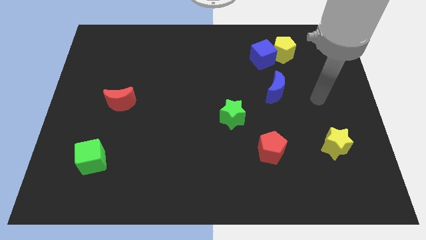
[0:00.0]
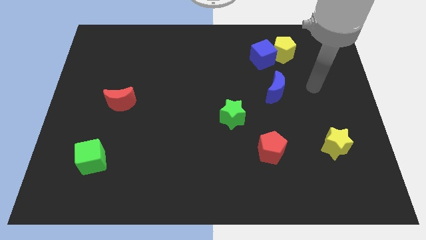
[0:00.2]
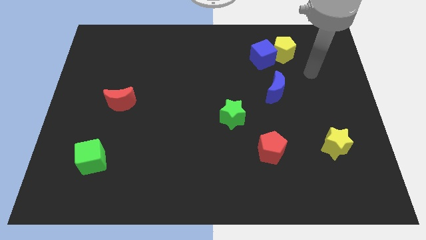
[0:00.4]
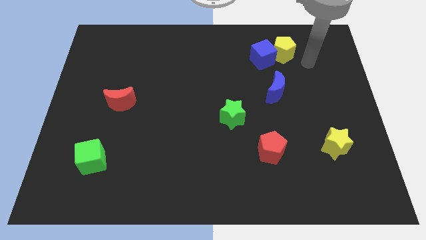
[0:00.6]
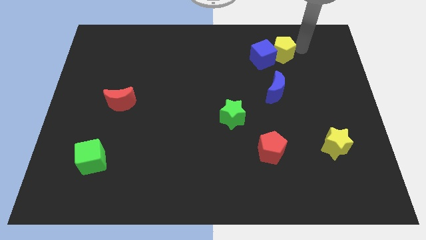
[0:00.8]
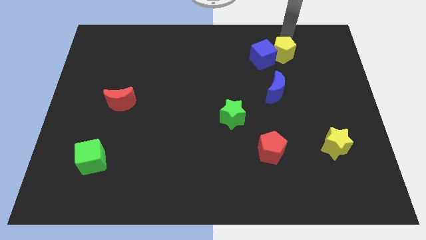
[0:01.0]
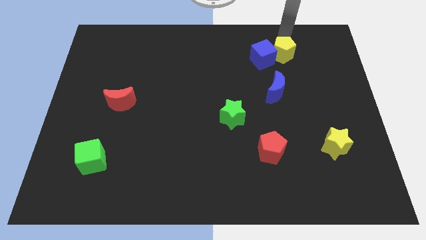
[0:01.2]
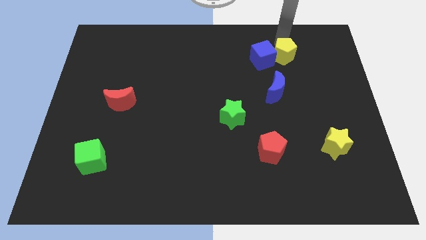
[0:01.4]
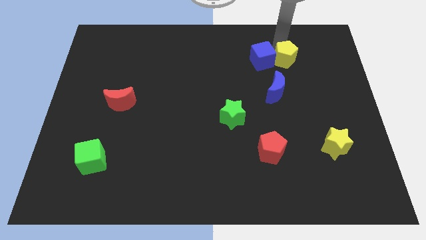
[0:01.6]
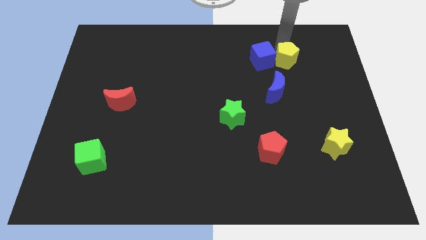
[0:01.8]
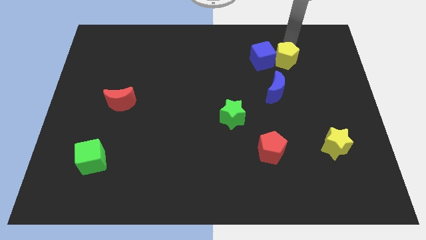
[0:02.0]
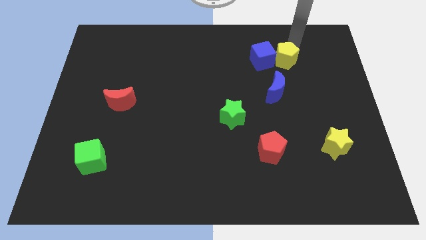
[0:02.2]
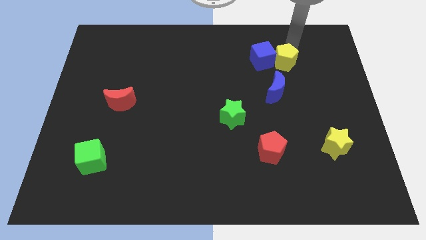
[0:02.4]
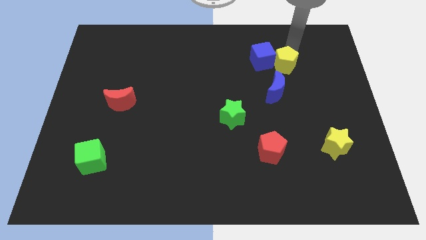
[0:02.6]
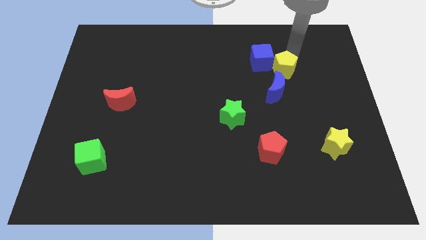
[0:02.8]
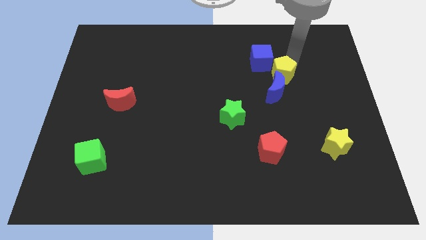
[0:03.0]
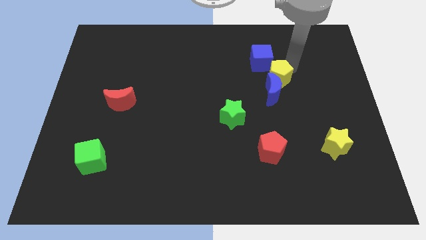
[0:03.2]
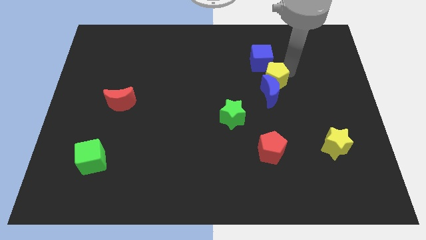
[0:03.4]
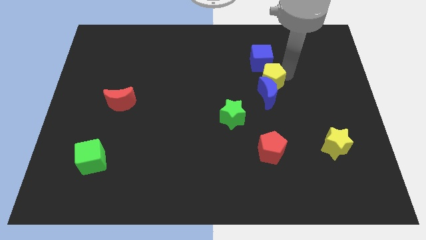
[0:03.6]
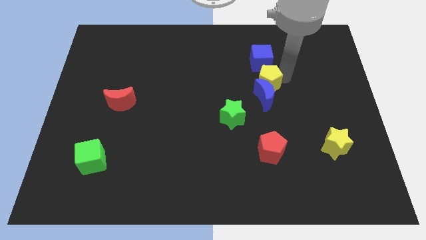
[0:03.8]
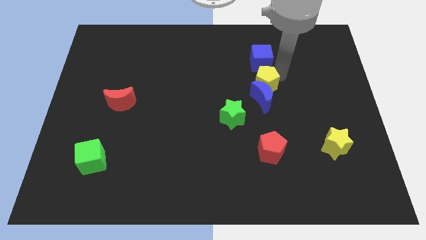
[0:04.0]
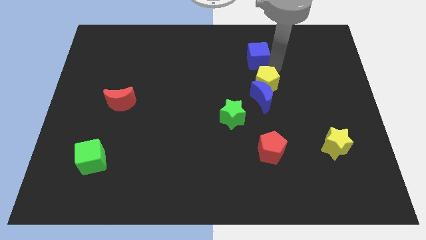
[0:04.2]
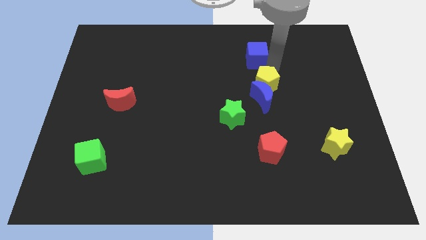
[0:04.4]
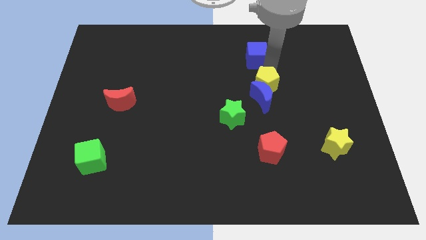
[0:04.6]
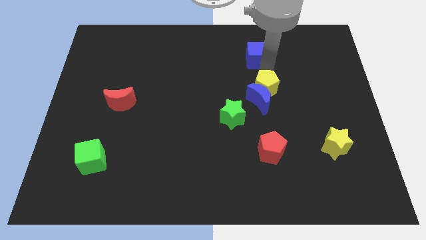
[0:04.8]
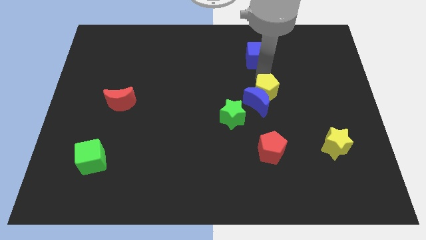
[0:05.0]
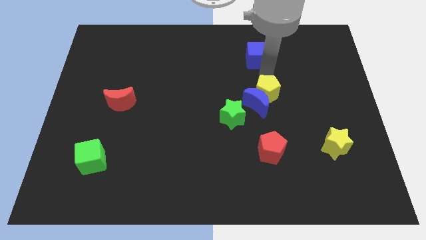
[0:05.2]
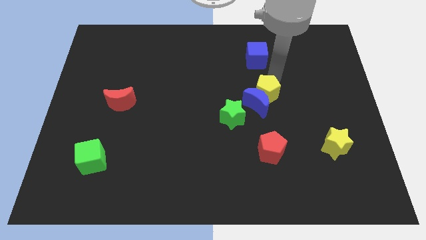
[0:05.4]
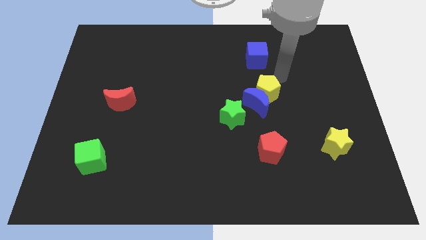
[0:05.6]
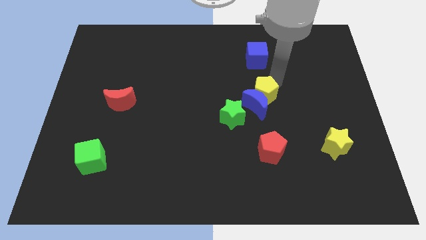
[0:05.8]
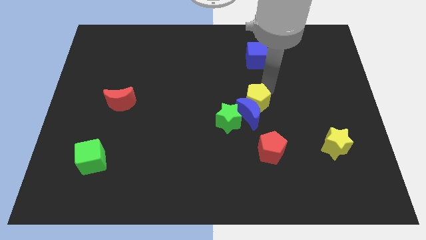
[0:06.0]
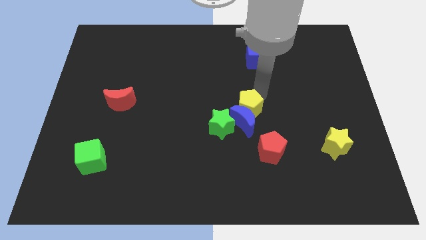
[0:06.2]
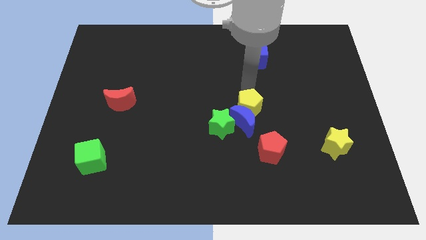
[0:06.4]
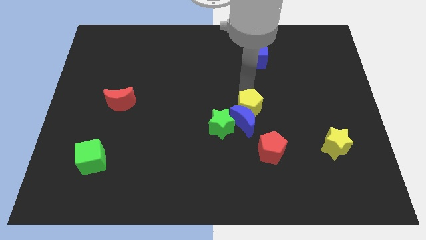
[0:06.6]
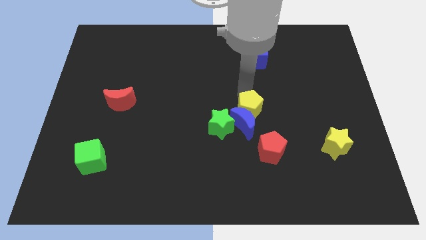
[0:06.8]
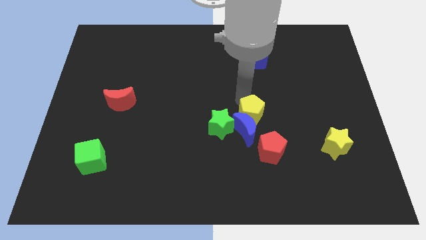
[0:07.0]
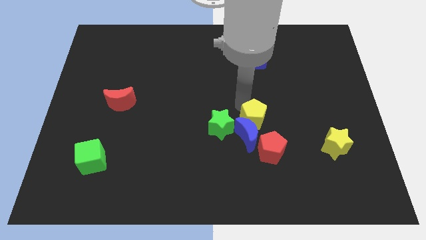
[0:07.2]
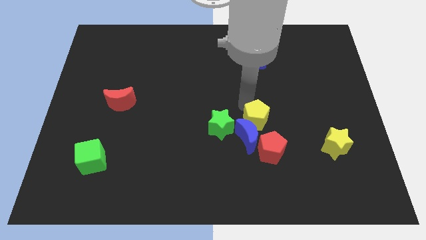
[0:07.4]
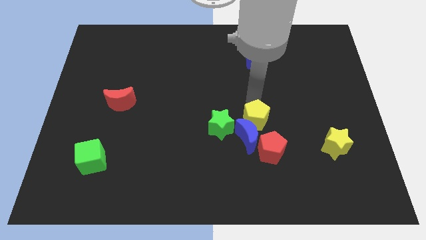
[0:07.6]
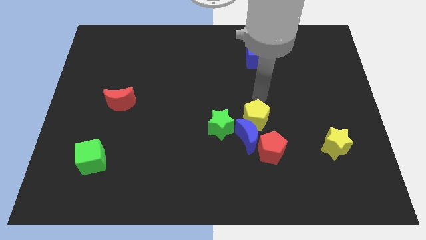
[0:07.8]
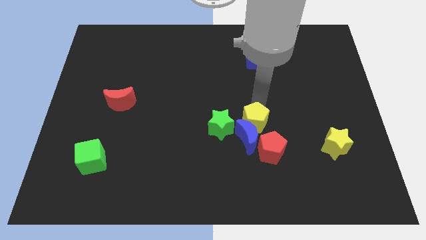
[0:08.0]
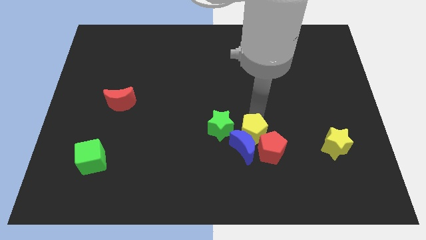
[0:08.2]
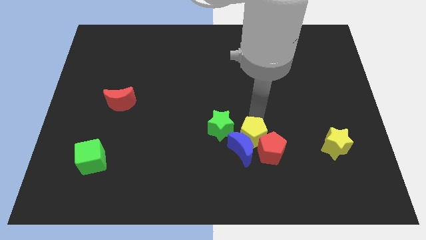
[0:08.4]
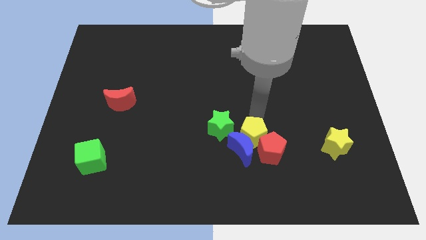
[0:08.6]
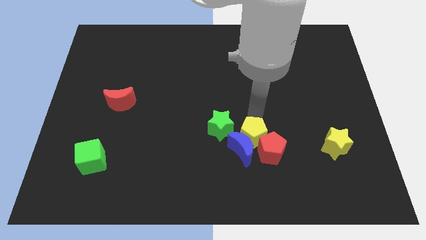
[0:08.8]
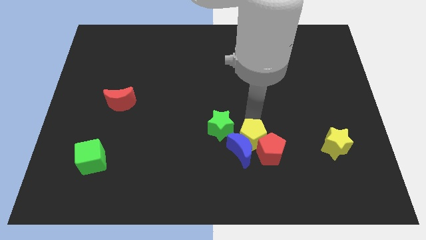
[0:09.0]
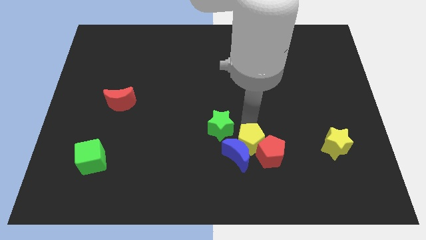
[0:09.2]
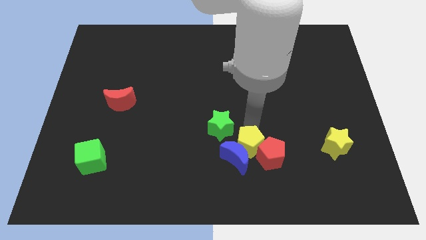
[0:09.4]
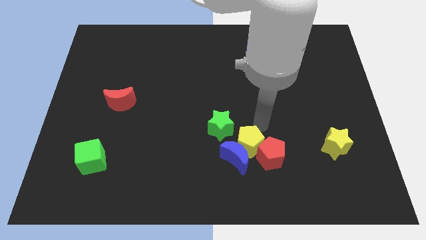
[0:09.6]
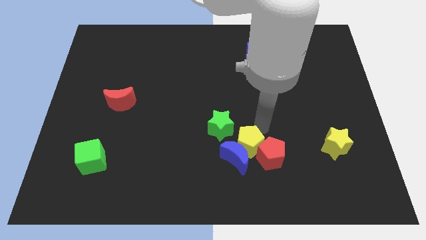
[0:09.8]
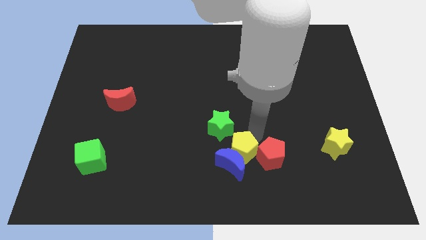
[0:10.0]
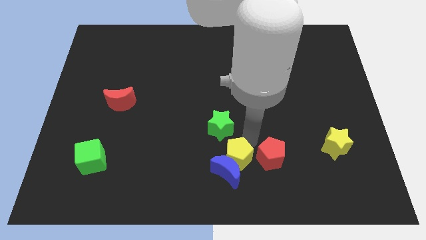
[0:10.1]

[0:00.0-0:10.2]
slide the yellow pentagon to the bottom side

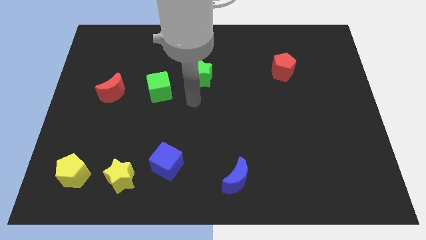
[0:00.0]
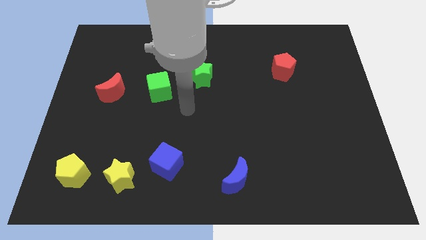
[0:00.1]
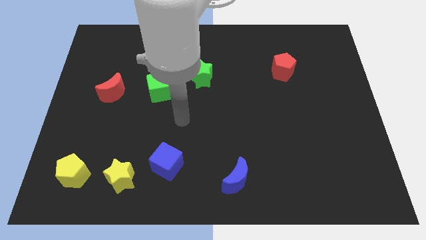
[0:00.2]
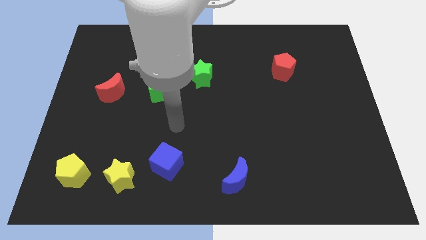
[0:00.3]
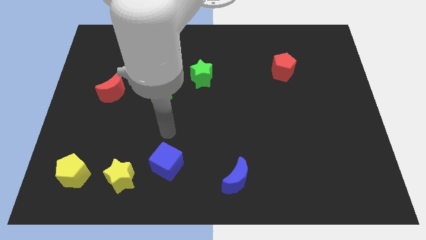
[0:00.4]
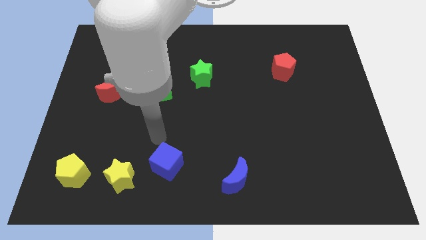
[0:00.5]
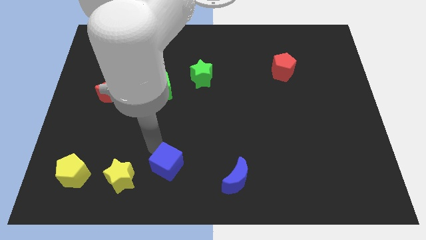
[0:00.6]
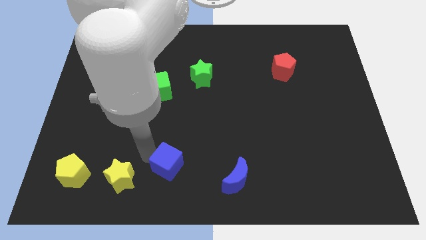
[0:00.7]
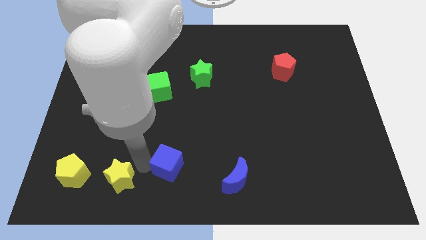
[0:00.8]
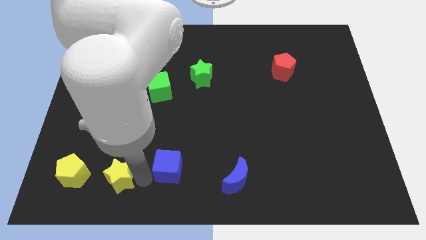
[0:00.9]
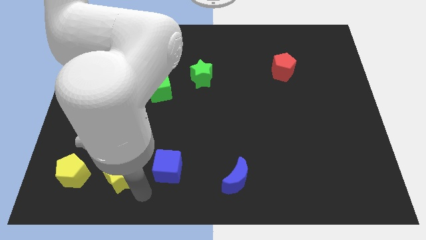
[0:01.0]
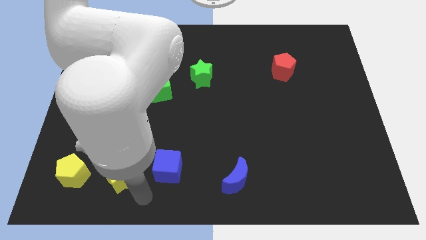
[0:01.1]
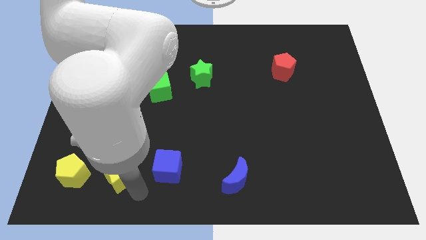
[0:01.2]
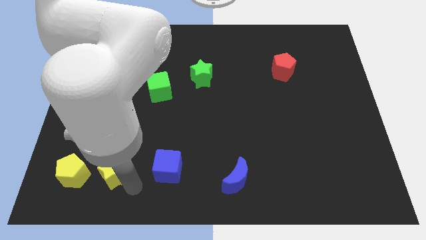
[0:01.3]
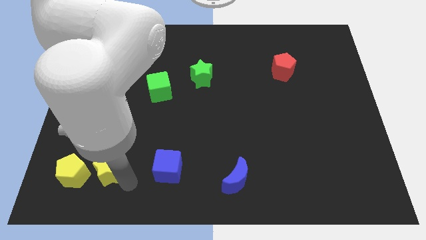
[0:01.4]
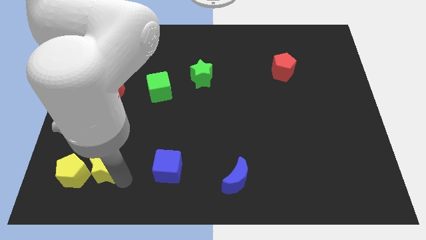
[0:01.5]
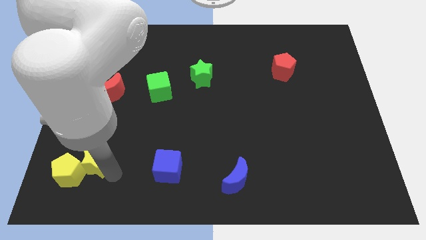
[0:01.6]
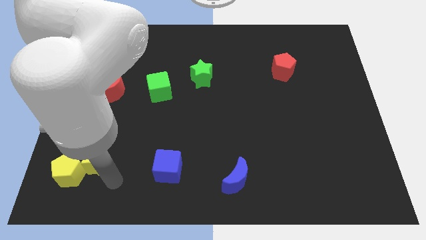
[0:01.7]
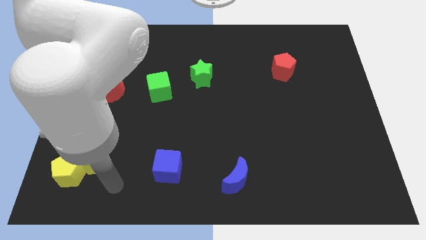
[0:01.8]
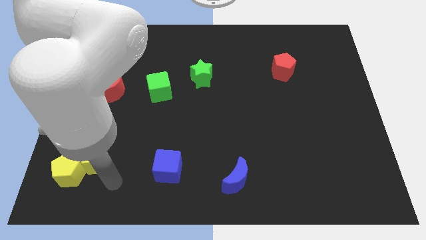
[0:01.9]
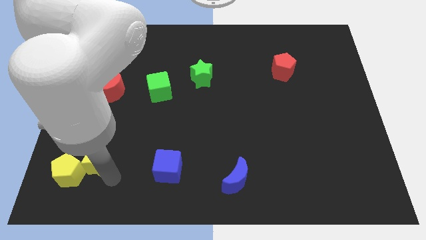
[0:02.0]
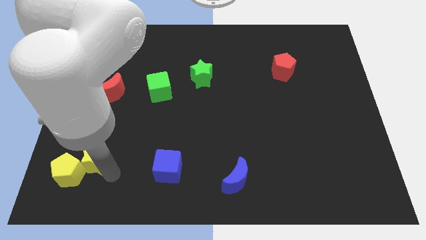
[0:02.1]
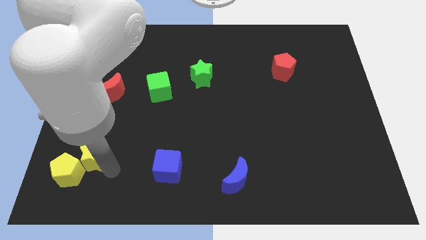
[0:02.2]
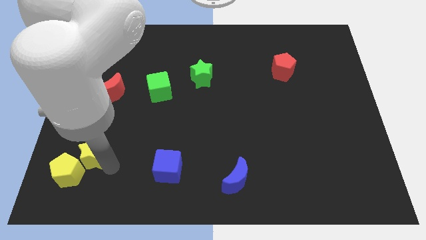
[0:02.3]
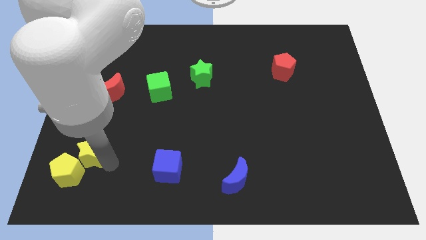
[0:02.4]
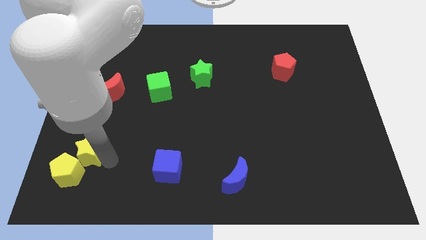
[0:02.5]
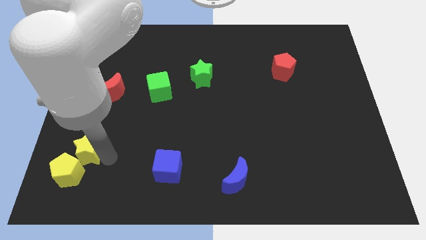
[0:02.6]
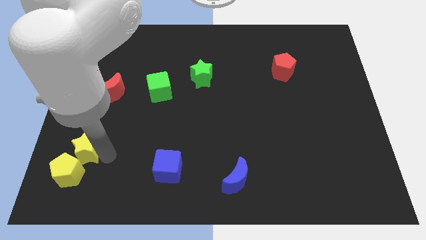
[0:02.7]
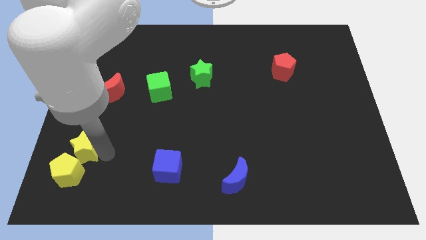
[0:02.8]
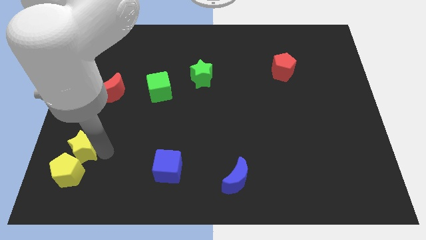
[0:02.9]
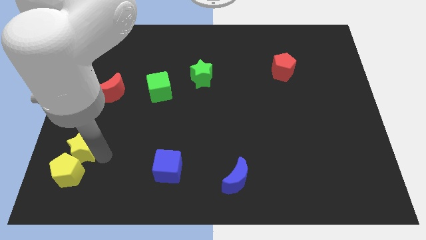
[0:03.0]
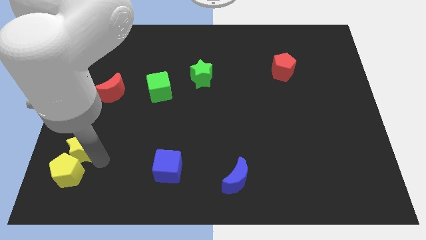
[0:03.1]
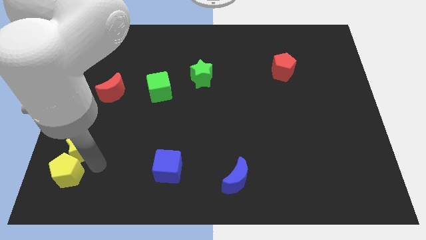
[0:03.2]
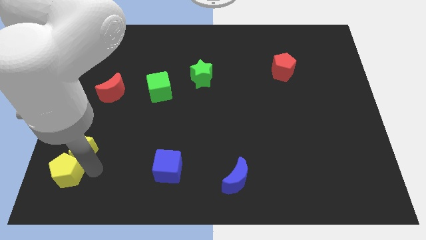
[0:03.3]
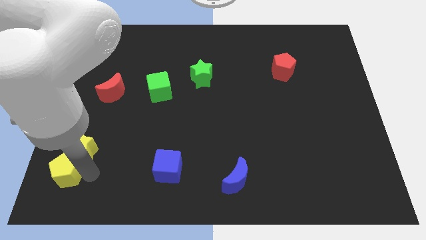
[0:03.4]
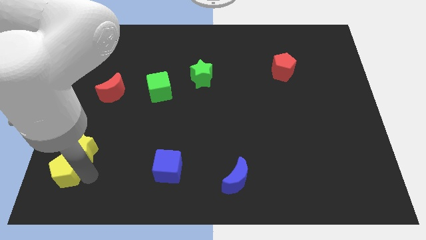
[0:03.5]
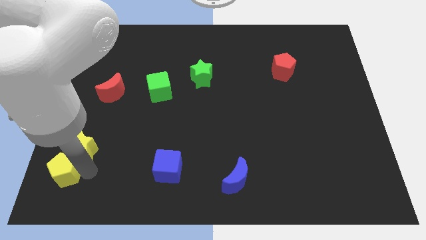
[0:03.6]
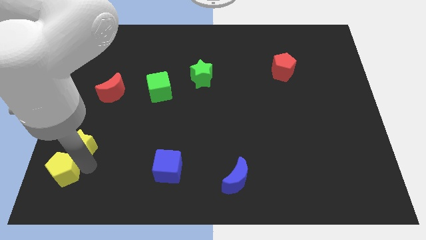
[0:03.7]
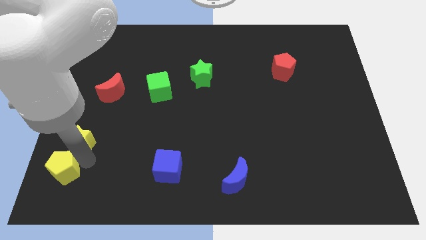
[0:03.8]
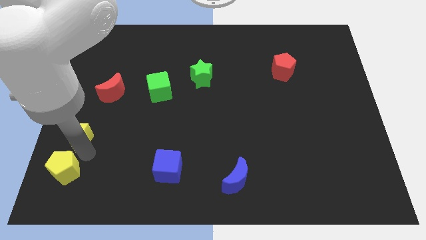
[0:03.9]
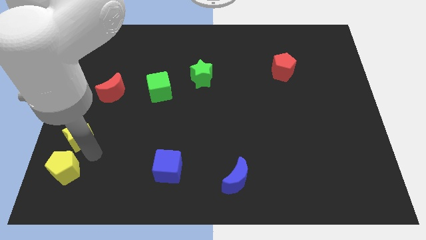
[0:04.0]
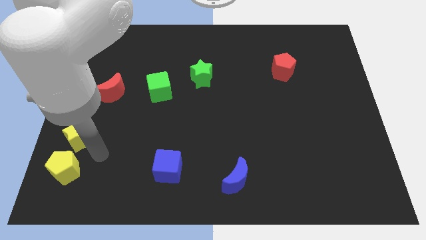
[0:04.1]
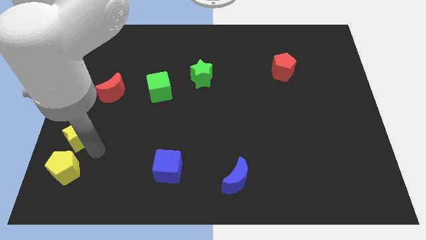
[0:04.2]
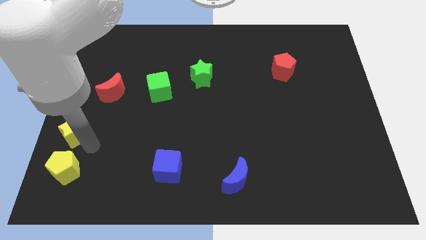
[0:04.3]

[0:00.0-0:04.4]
push the yellow star to the center left
